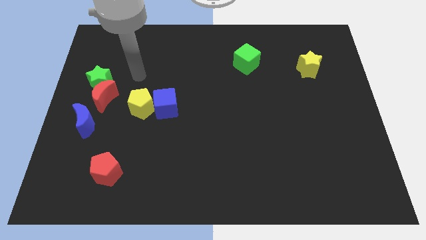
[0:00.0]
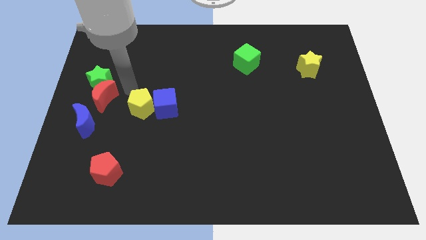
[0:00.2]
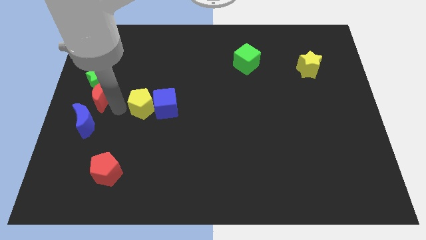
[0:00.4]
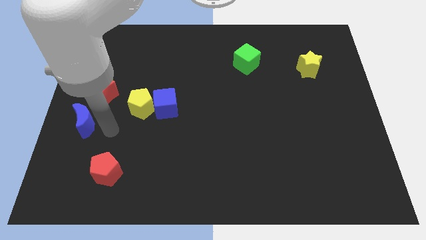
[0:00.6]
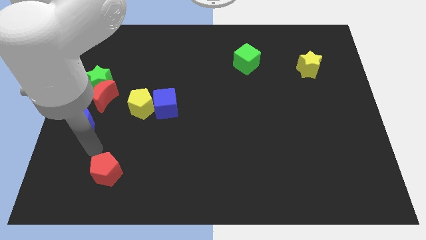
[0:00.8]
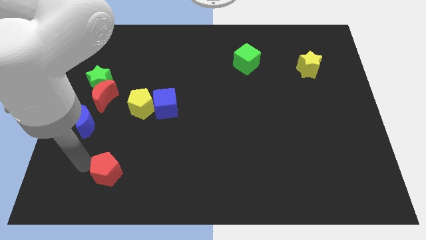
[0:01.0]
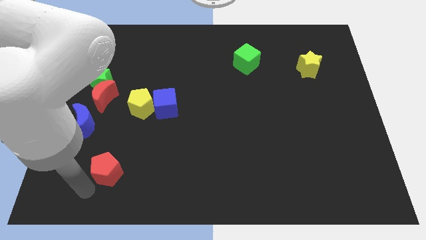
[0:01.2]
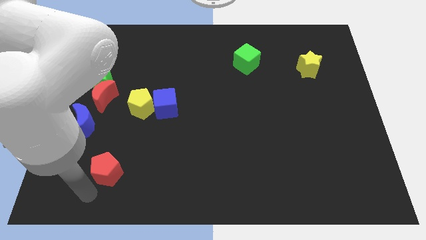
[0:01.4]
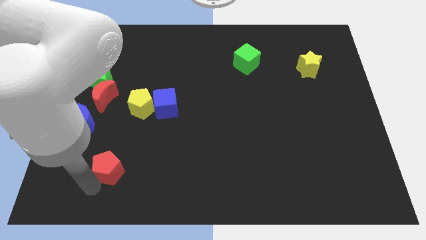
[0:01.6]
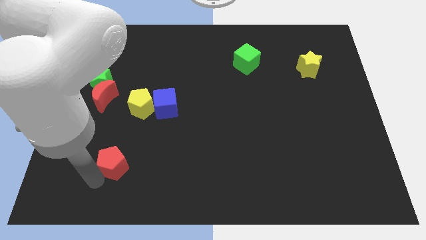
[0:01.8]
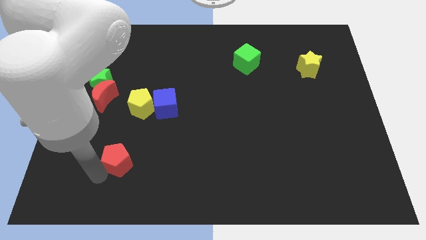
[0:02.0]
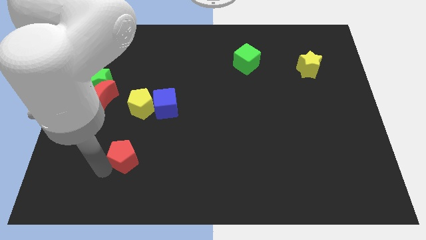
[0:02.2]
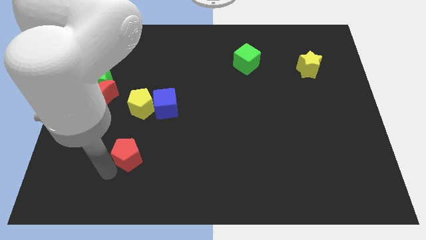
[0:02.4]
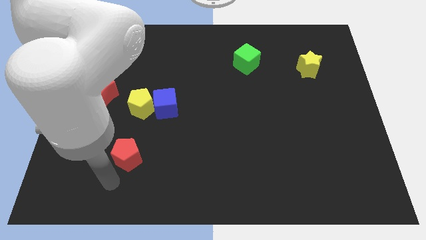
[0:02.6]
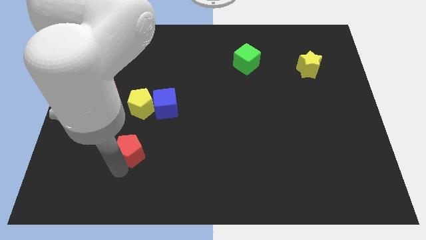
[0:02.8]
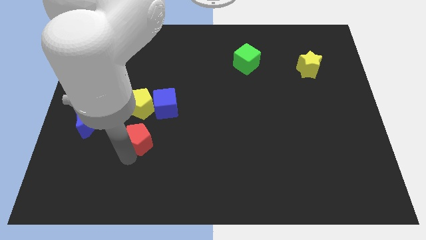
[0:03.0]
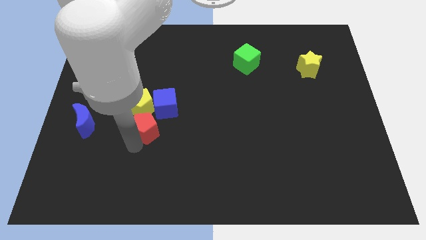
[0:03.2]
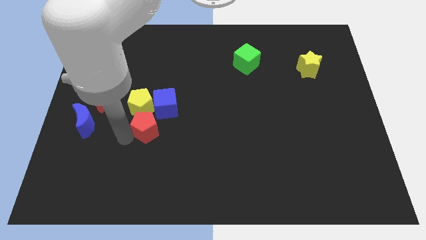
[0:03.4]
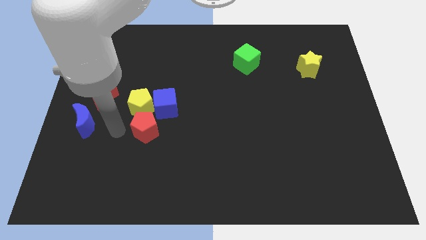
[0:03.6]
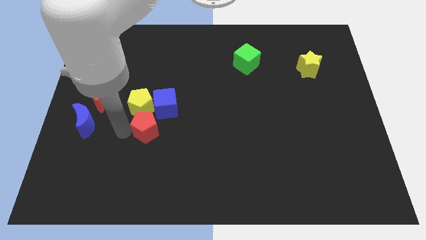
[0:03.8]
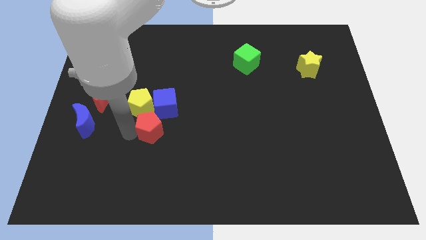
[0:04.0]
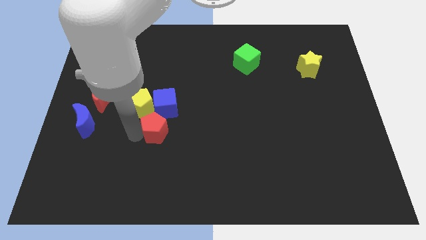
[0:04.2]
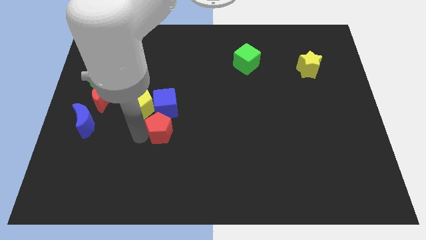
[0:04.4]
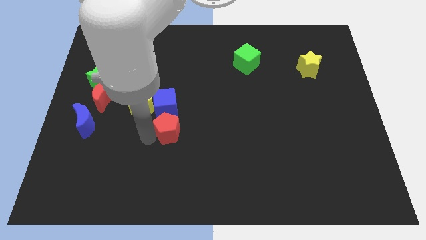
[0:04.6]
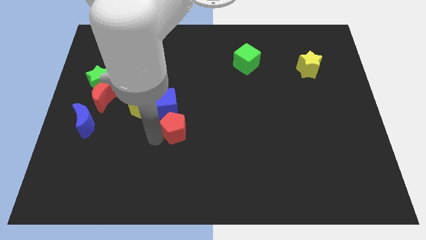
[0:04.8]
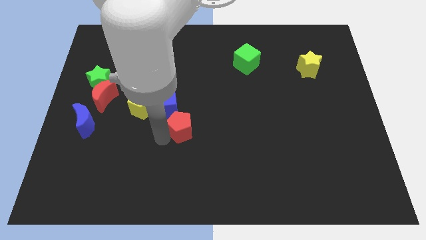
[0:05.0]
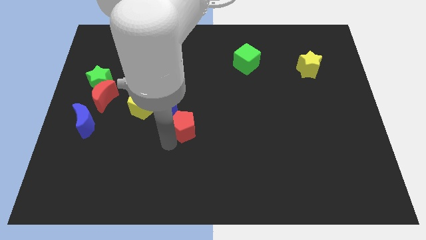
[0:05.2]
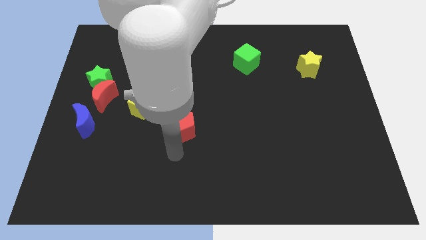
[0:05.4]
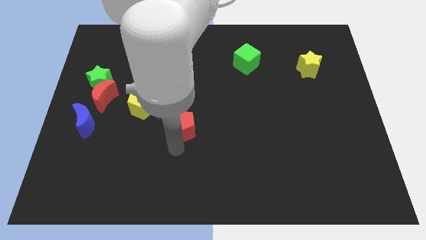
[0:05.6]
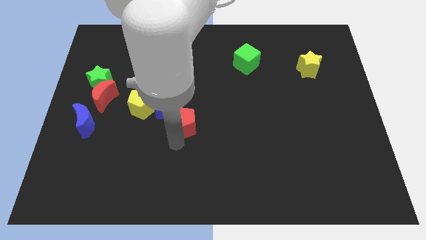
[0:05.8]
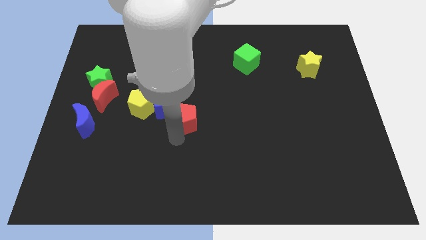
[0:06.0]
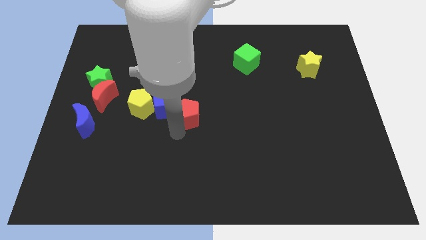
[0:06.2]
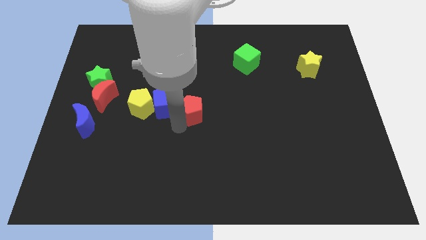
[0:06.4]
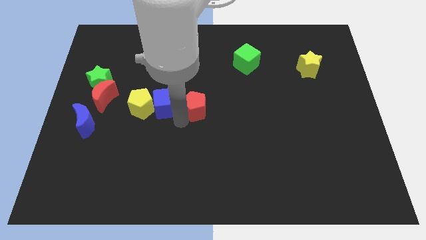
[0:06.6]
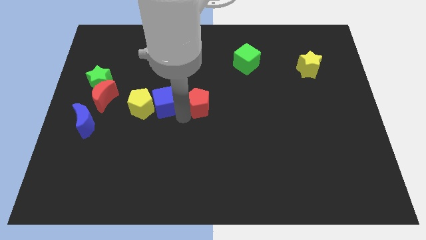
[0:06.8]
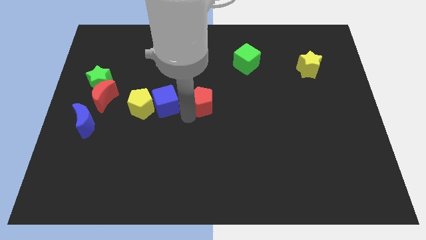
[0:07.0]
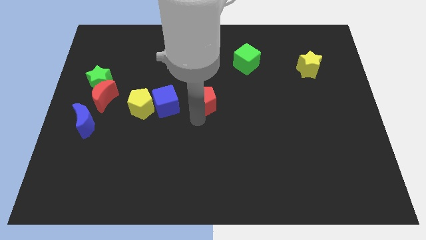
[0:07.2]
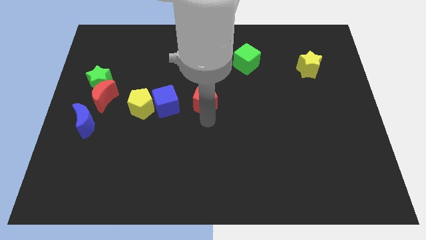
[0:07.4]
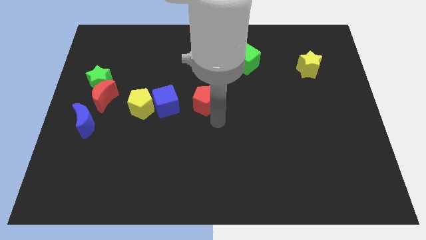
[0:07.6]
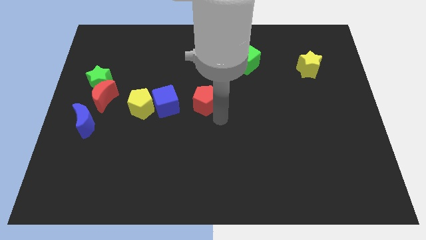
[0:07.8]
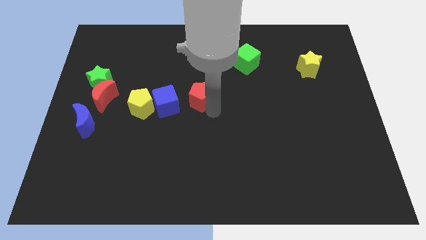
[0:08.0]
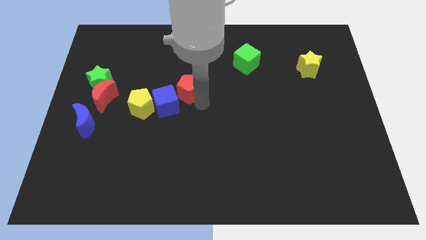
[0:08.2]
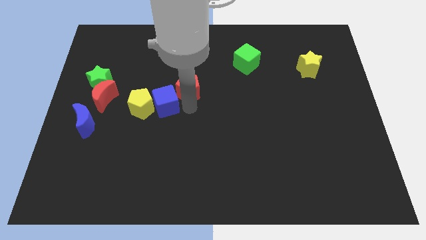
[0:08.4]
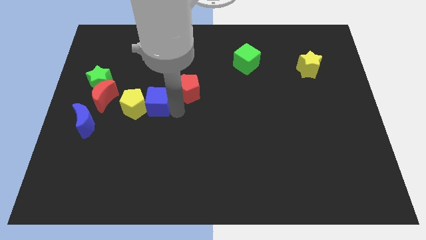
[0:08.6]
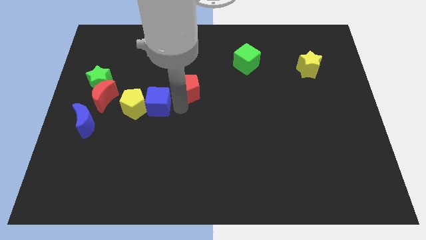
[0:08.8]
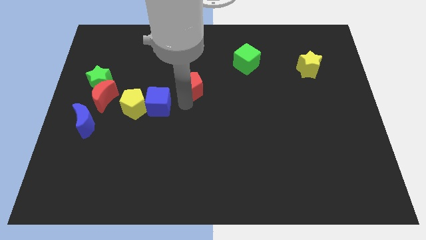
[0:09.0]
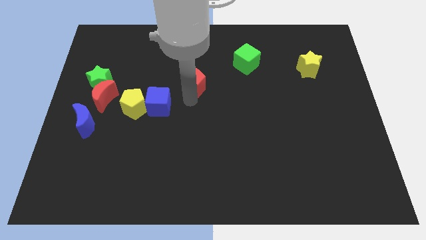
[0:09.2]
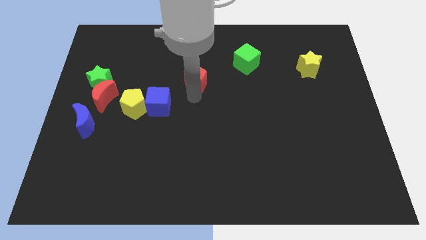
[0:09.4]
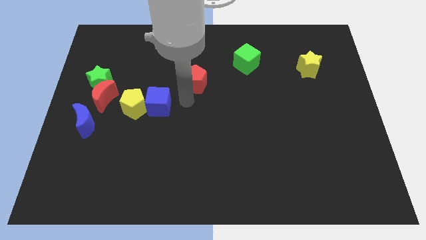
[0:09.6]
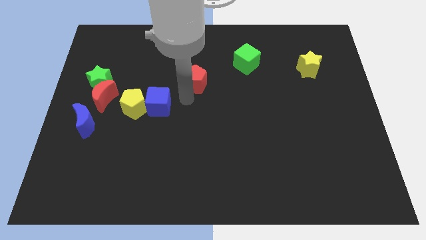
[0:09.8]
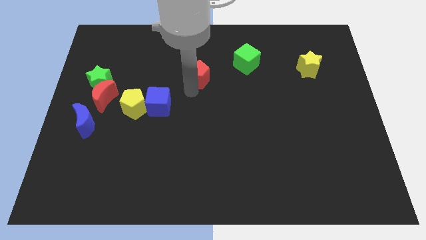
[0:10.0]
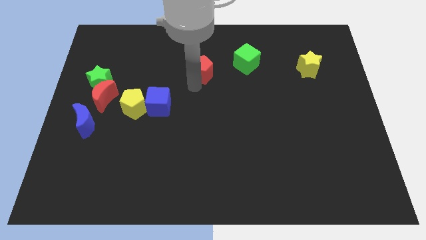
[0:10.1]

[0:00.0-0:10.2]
put the red pentagon left of the green cube

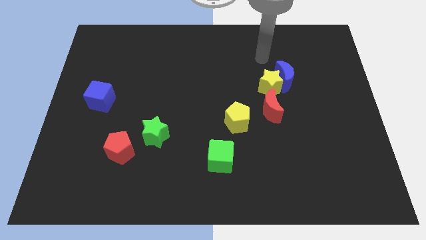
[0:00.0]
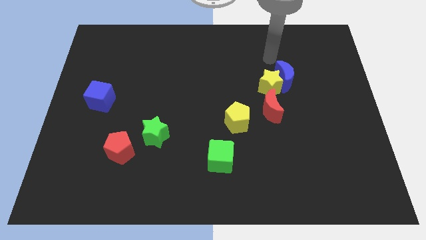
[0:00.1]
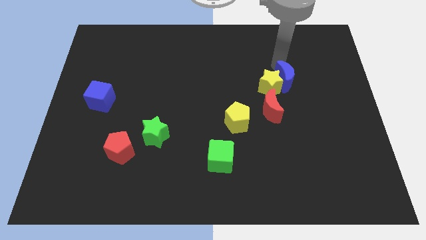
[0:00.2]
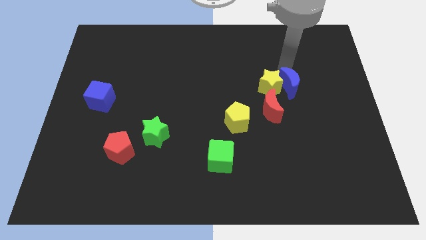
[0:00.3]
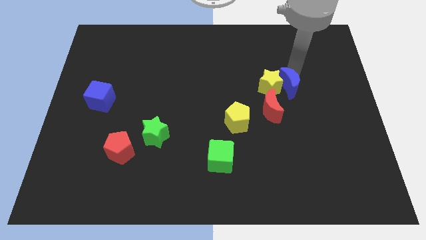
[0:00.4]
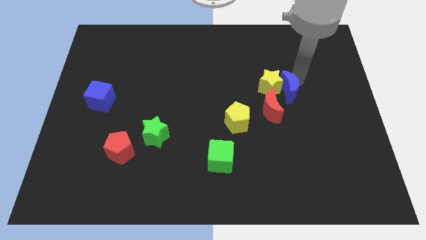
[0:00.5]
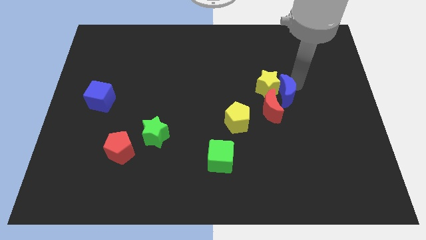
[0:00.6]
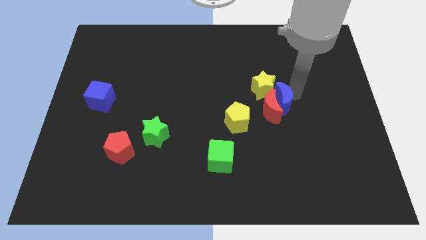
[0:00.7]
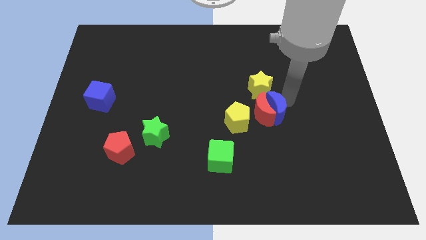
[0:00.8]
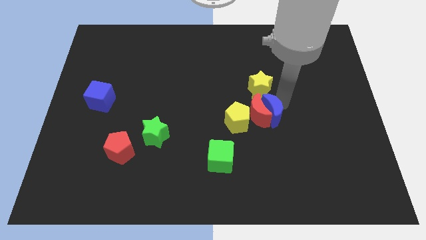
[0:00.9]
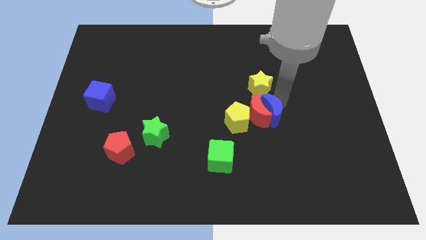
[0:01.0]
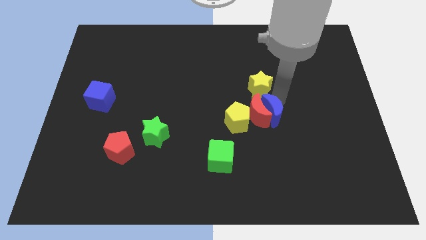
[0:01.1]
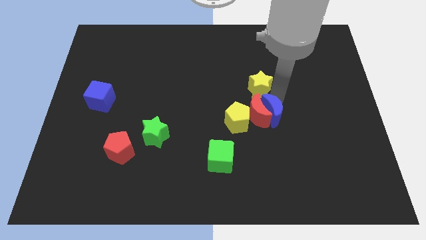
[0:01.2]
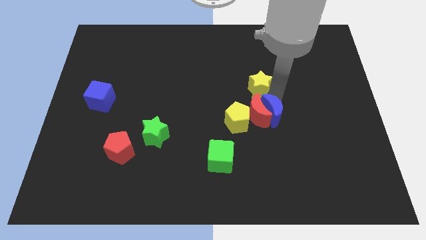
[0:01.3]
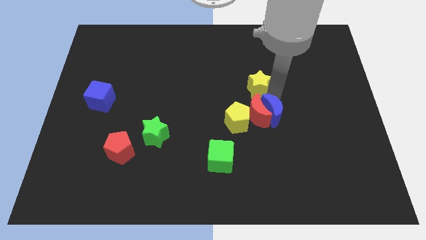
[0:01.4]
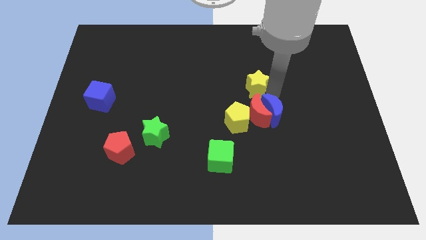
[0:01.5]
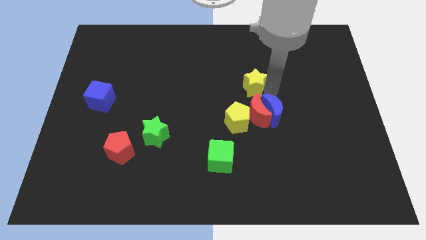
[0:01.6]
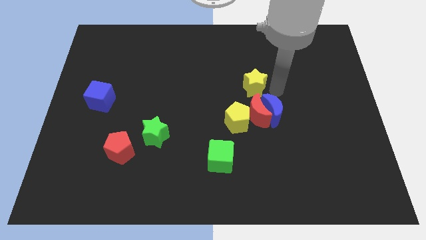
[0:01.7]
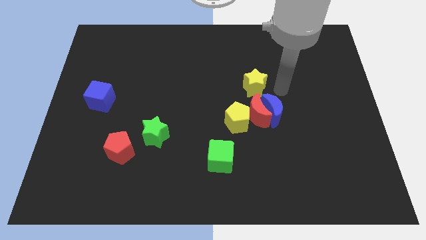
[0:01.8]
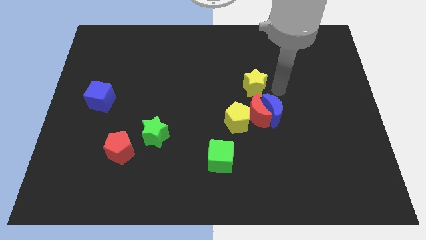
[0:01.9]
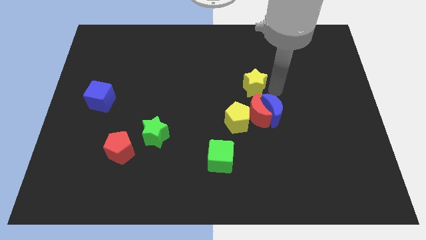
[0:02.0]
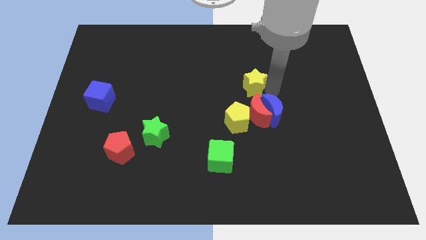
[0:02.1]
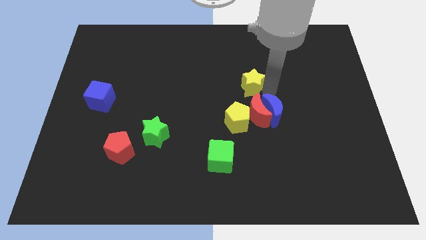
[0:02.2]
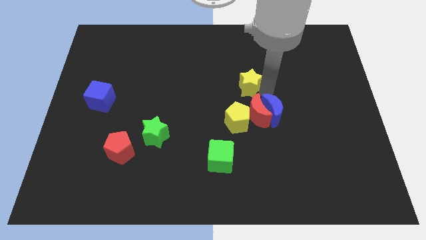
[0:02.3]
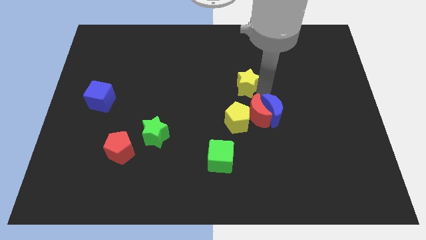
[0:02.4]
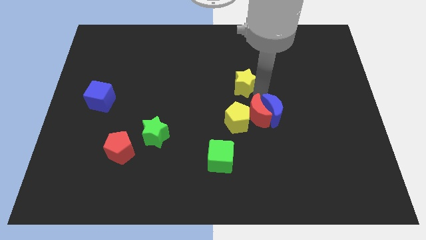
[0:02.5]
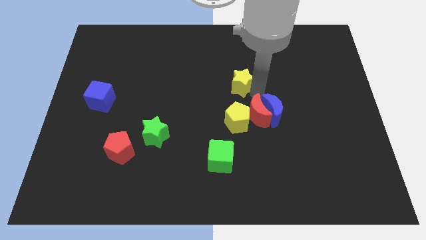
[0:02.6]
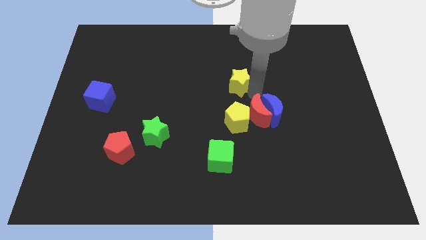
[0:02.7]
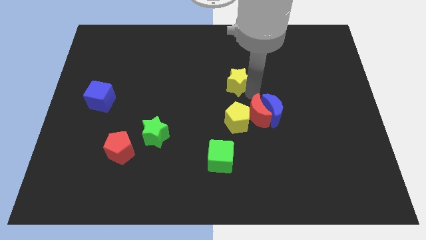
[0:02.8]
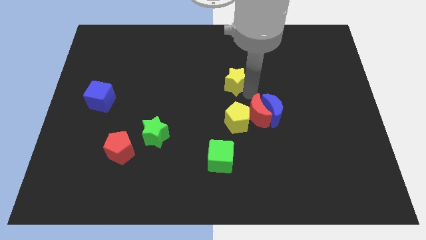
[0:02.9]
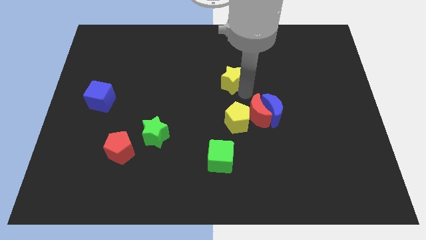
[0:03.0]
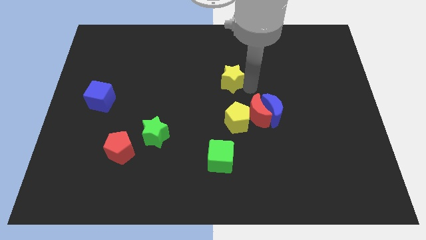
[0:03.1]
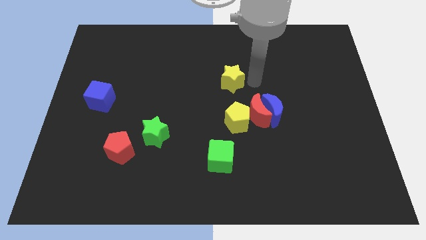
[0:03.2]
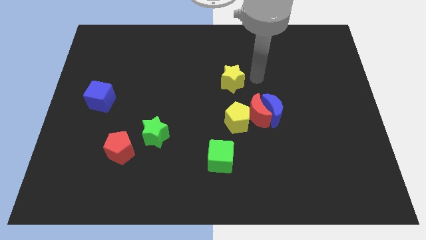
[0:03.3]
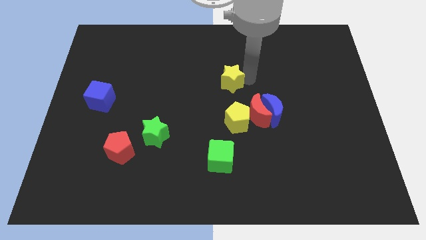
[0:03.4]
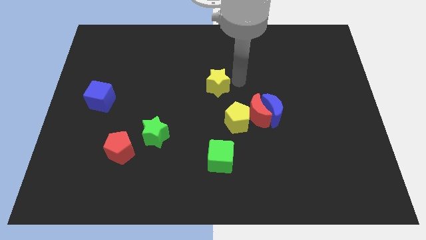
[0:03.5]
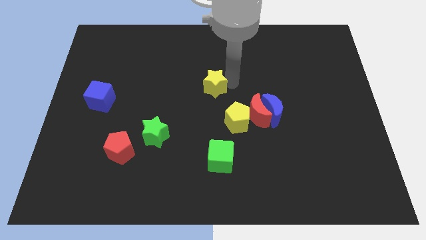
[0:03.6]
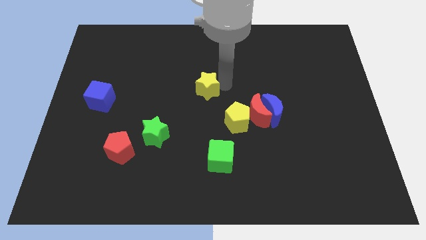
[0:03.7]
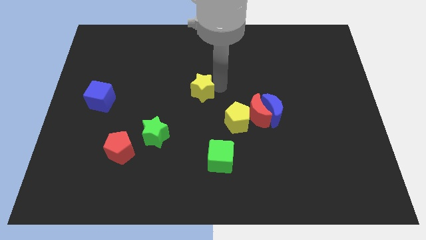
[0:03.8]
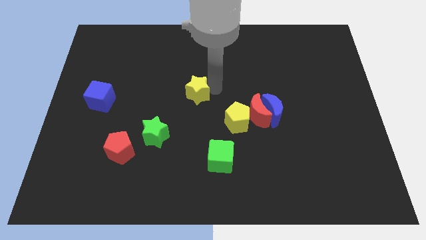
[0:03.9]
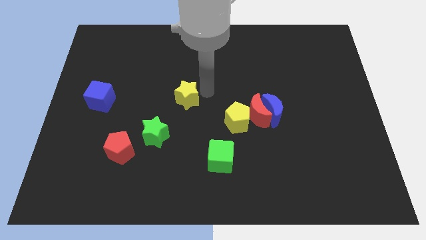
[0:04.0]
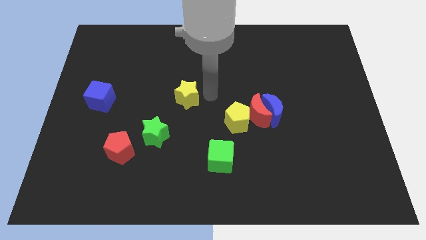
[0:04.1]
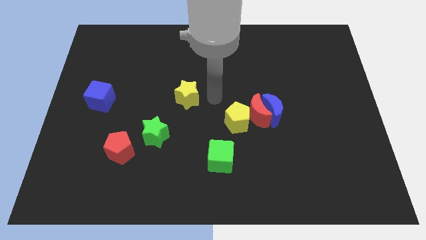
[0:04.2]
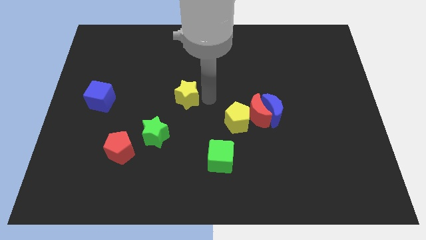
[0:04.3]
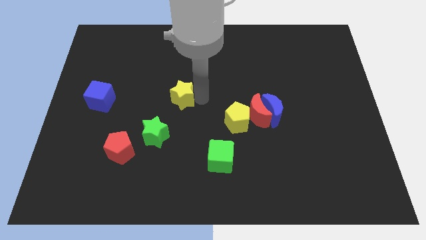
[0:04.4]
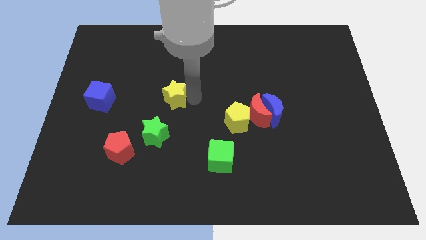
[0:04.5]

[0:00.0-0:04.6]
slide the yellow star above the green star
